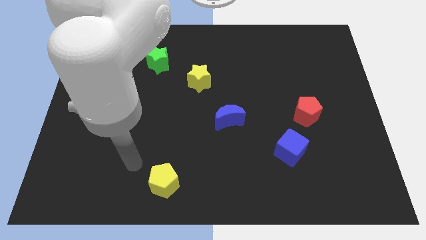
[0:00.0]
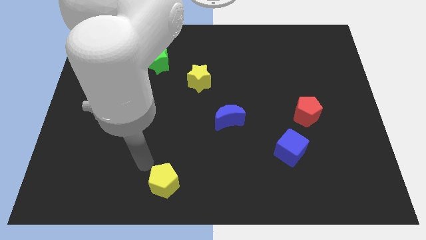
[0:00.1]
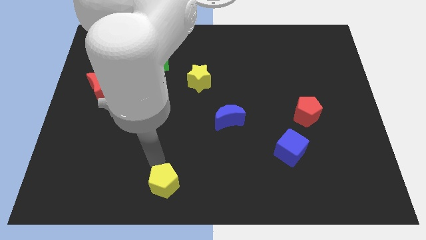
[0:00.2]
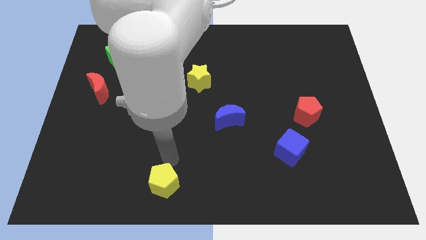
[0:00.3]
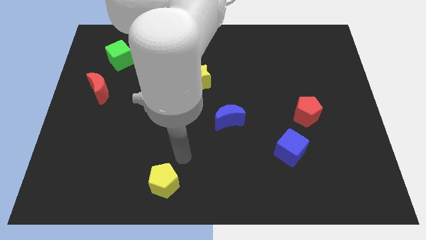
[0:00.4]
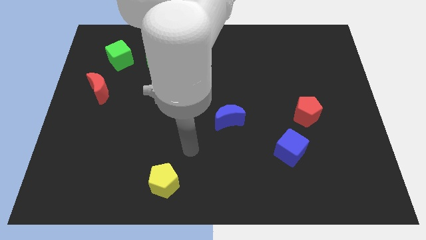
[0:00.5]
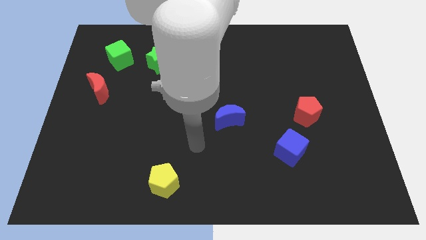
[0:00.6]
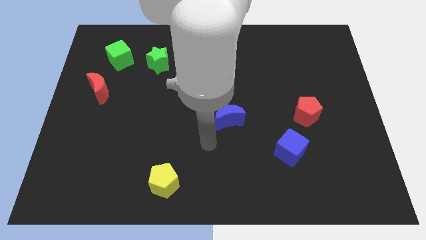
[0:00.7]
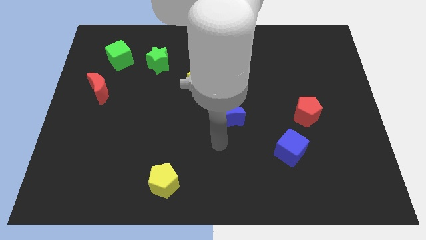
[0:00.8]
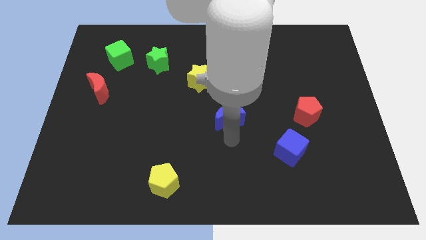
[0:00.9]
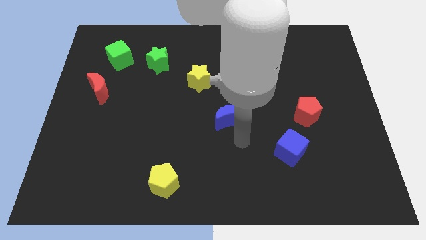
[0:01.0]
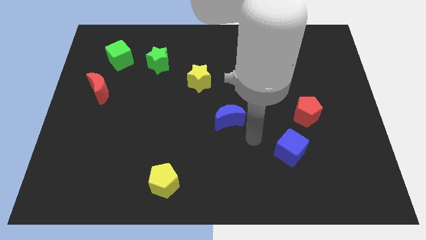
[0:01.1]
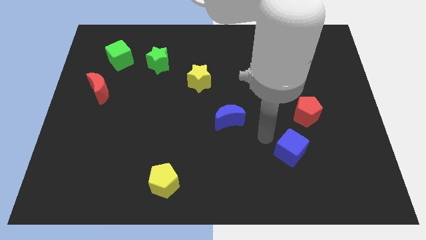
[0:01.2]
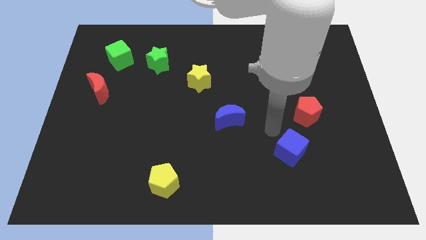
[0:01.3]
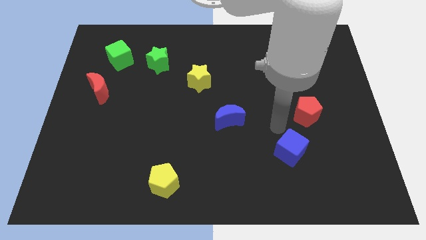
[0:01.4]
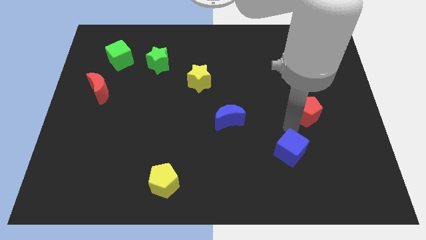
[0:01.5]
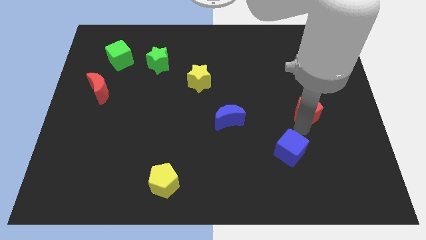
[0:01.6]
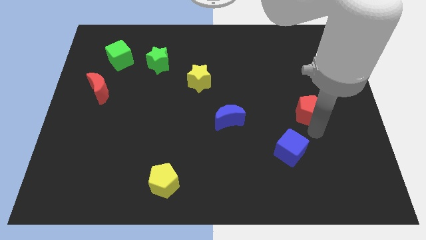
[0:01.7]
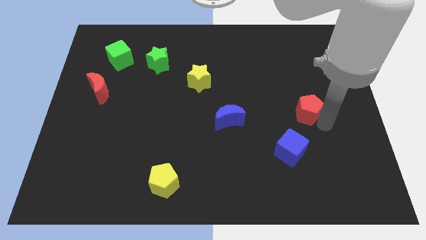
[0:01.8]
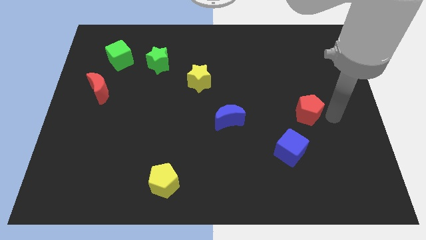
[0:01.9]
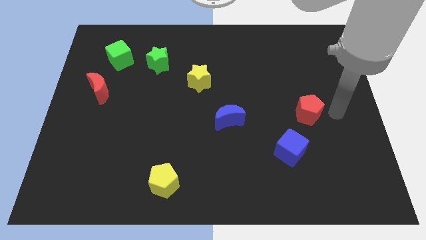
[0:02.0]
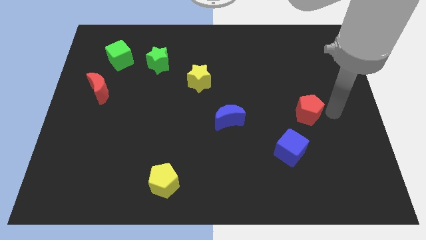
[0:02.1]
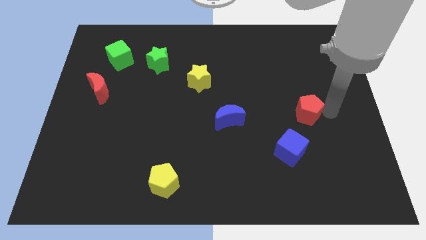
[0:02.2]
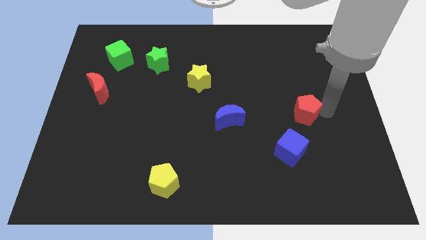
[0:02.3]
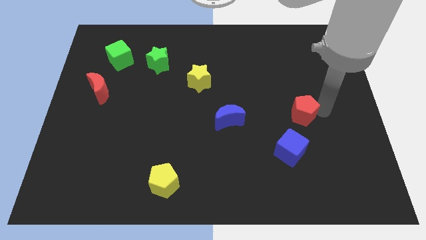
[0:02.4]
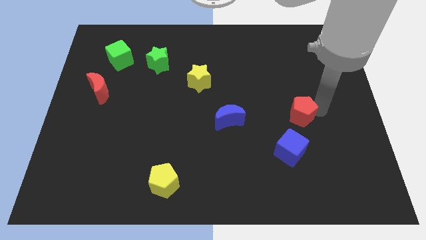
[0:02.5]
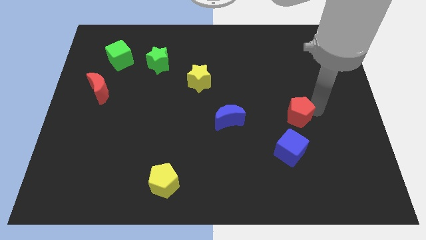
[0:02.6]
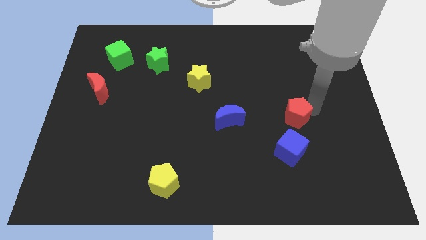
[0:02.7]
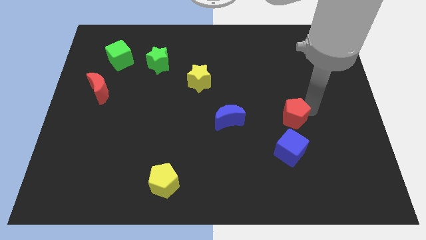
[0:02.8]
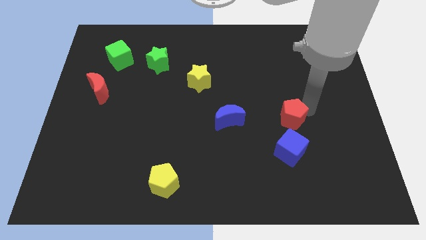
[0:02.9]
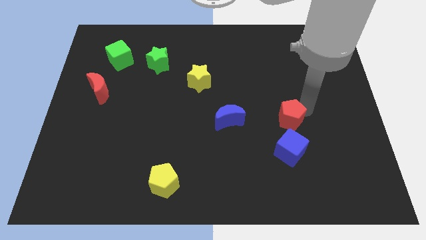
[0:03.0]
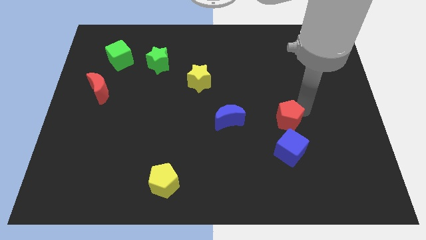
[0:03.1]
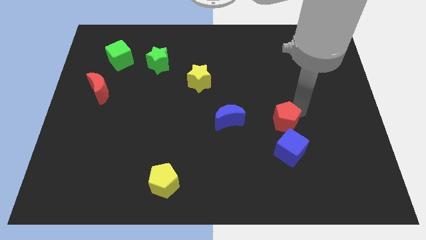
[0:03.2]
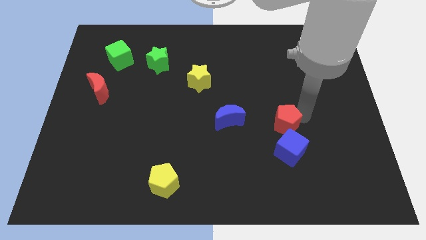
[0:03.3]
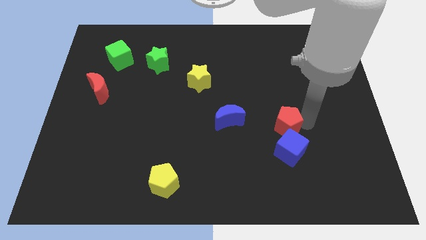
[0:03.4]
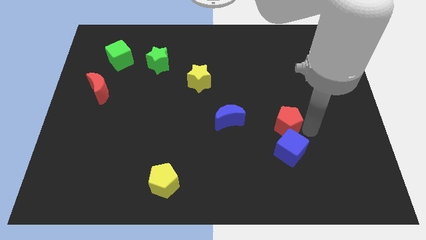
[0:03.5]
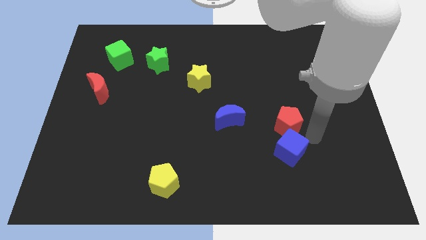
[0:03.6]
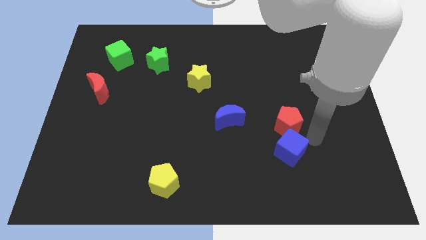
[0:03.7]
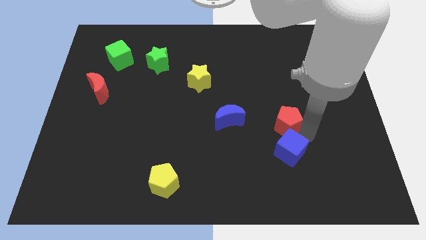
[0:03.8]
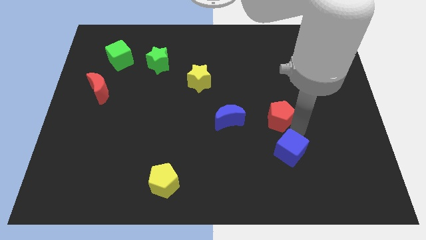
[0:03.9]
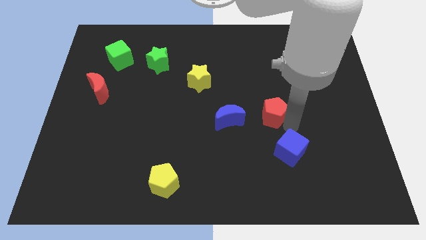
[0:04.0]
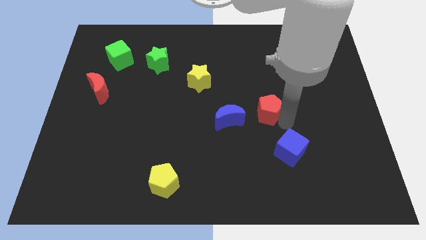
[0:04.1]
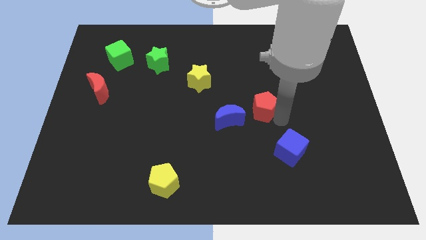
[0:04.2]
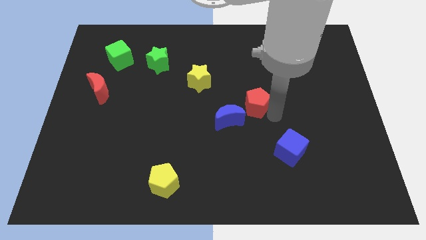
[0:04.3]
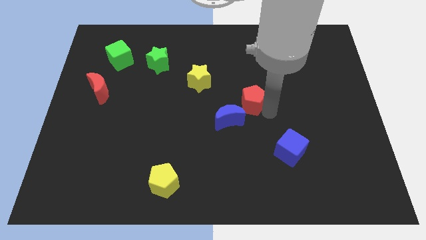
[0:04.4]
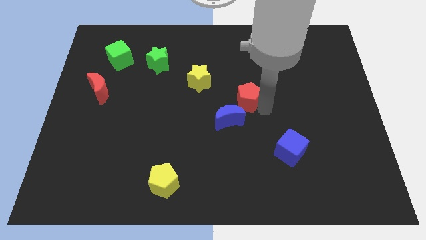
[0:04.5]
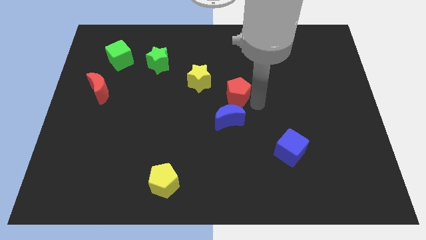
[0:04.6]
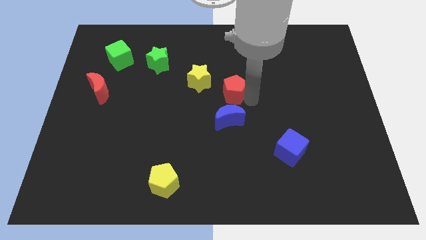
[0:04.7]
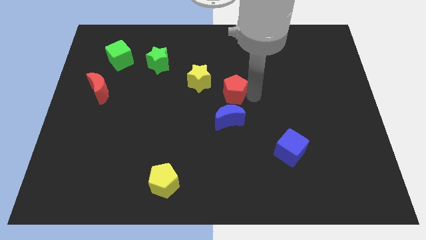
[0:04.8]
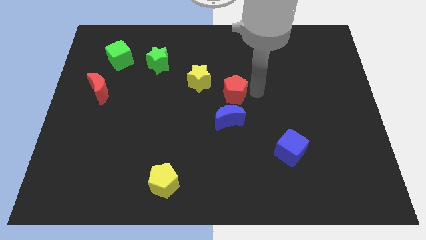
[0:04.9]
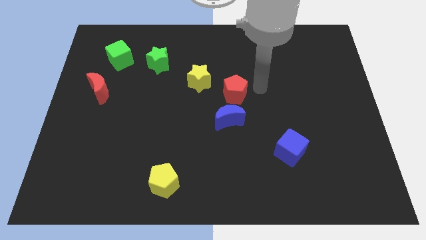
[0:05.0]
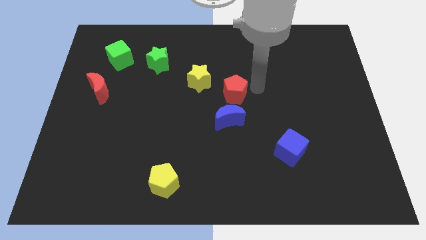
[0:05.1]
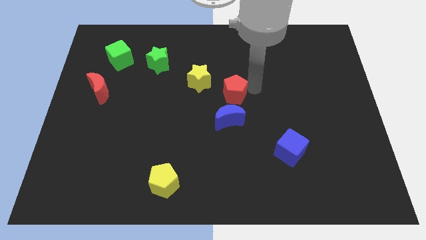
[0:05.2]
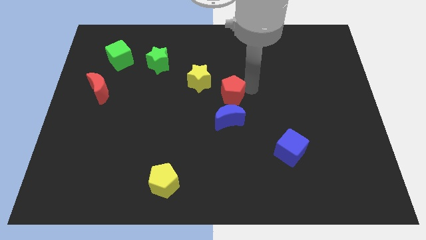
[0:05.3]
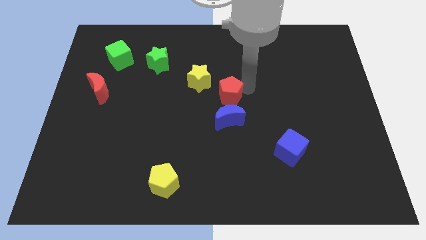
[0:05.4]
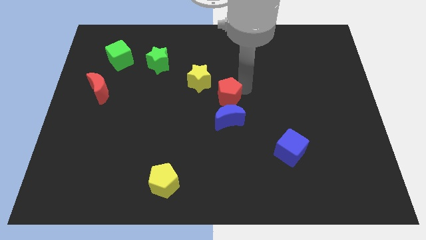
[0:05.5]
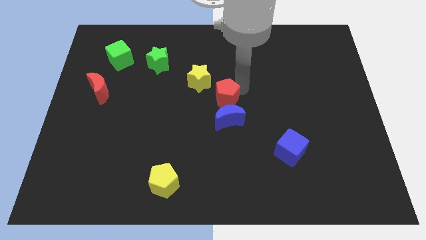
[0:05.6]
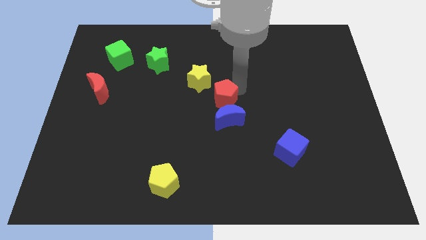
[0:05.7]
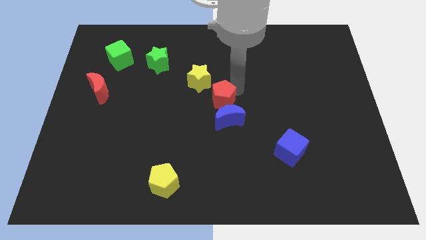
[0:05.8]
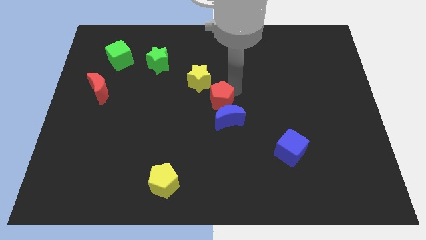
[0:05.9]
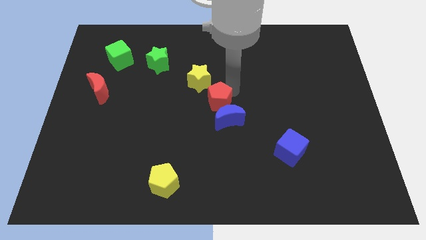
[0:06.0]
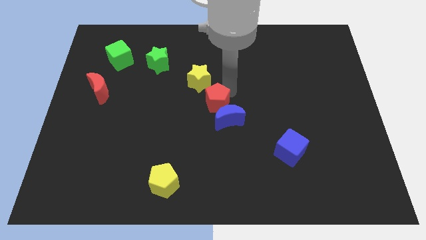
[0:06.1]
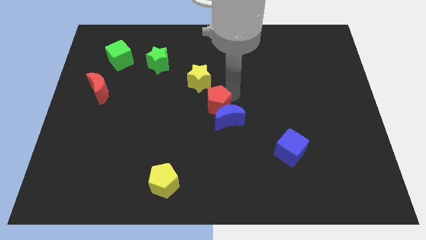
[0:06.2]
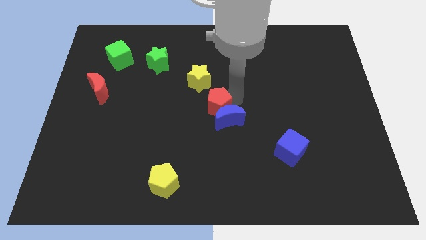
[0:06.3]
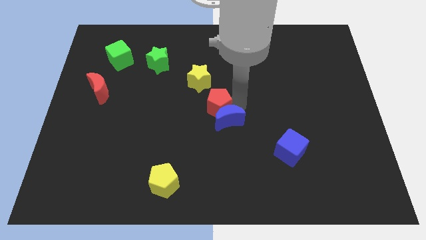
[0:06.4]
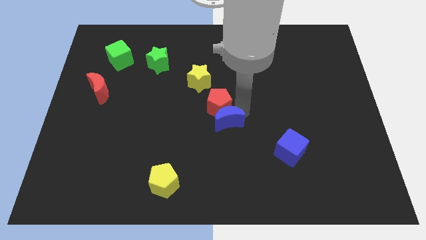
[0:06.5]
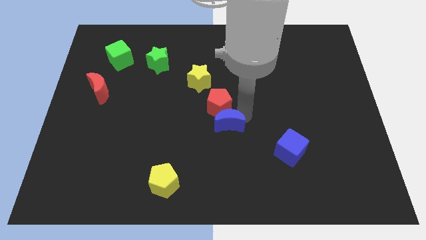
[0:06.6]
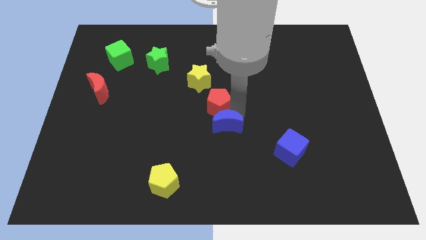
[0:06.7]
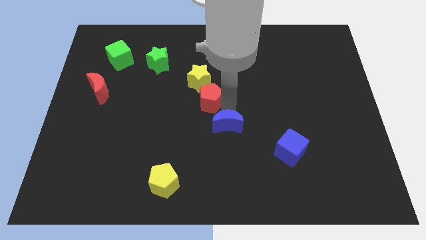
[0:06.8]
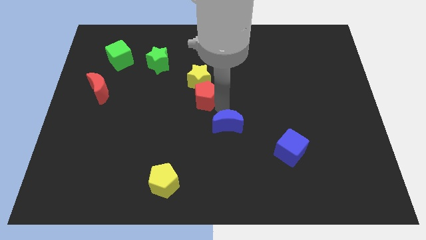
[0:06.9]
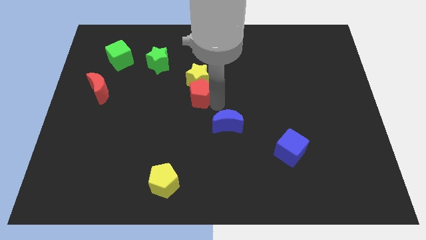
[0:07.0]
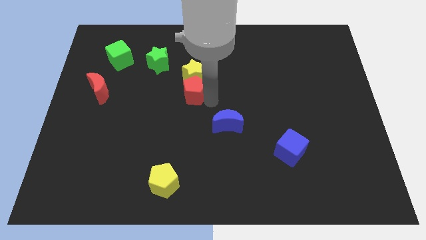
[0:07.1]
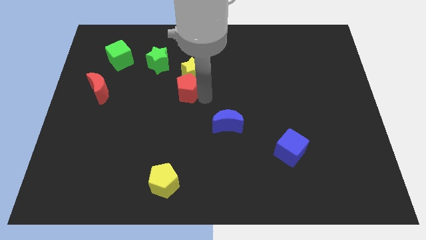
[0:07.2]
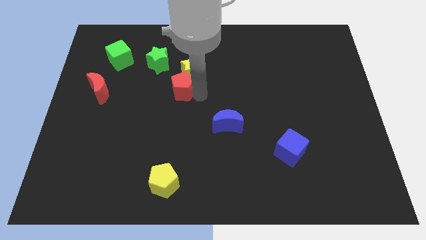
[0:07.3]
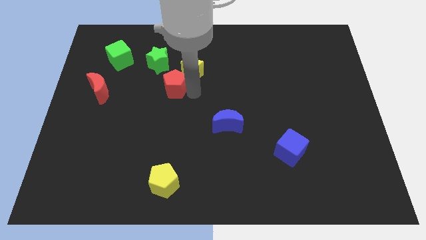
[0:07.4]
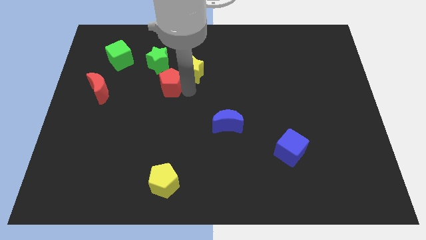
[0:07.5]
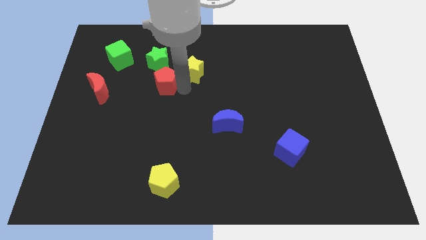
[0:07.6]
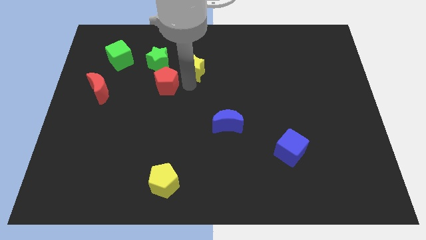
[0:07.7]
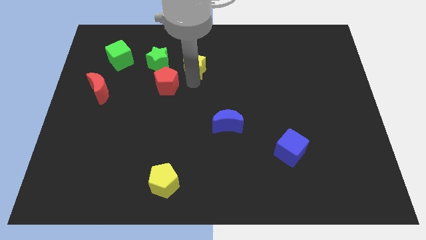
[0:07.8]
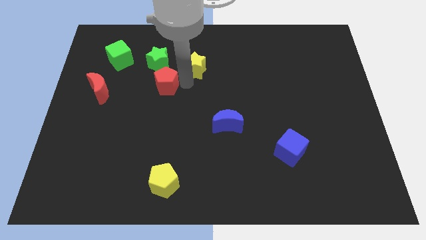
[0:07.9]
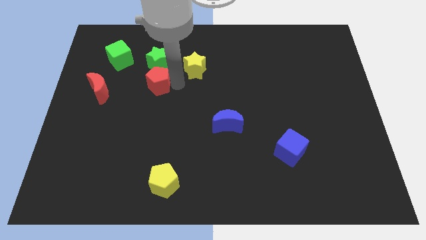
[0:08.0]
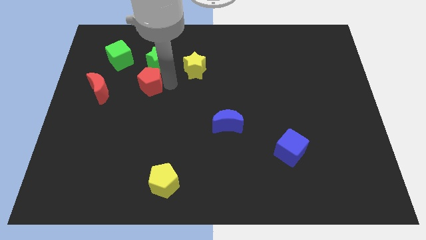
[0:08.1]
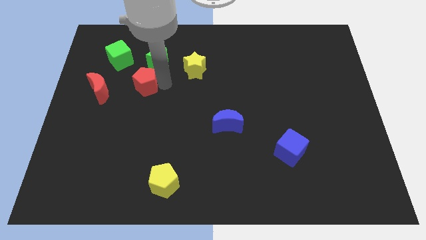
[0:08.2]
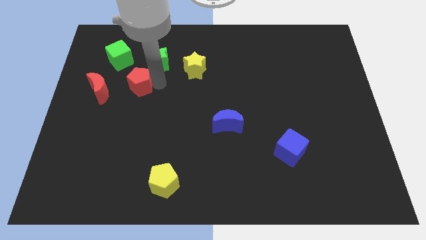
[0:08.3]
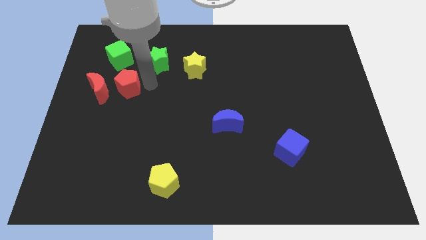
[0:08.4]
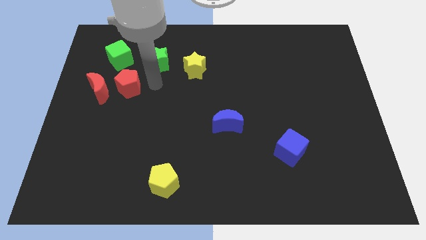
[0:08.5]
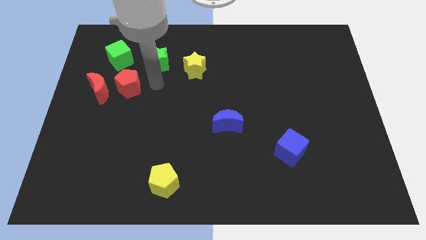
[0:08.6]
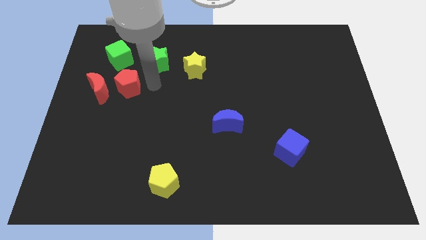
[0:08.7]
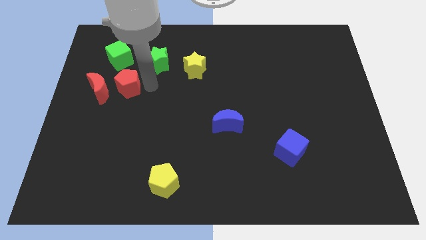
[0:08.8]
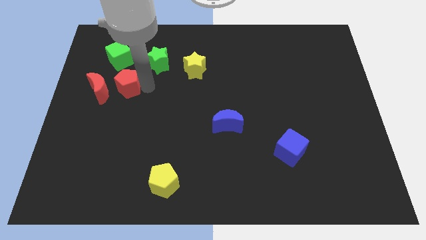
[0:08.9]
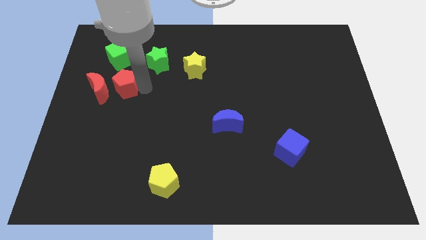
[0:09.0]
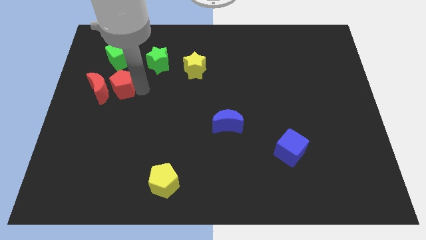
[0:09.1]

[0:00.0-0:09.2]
put the red pentagon next to the red moon
